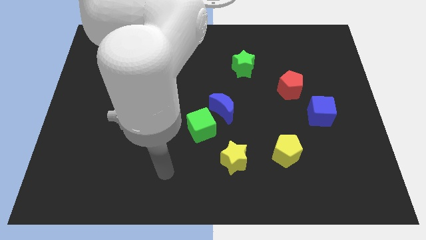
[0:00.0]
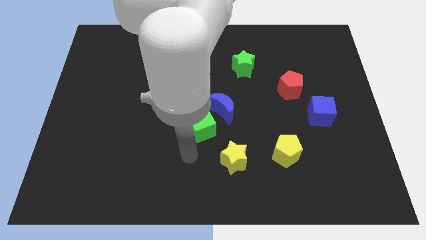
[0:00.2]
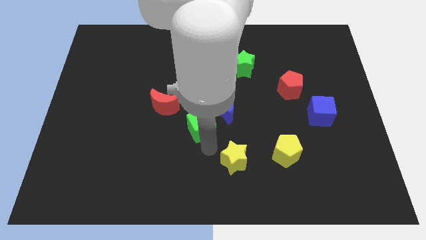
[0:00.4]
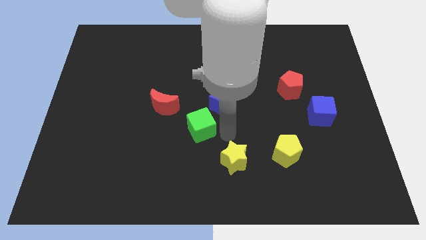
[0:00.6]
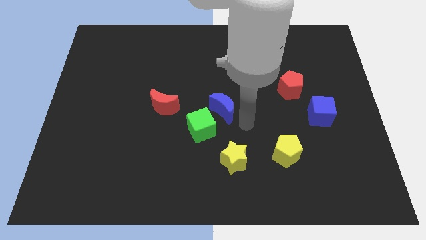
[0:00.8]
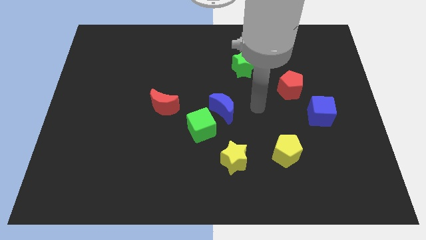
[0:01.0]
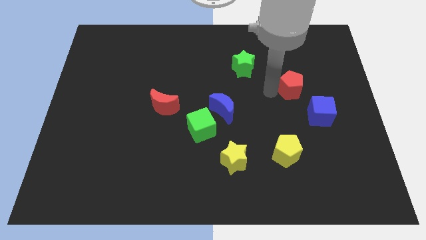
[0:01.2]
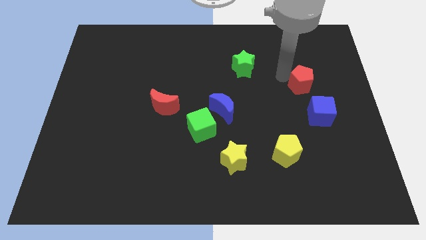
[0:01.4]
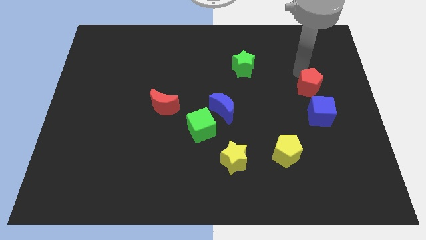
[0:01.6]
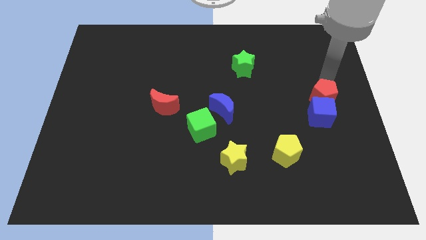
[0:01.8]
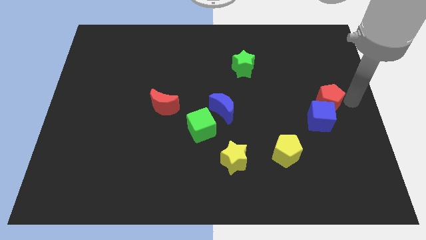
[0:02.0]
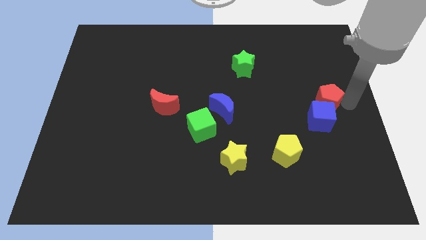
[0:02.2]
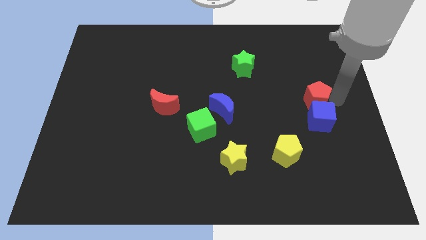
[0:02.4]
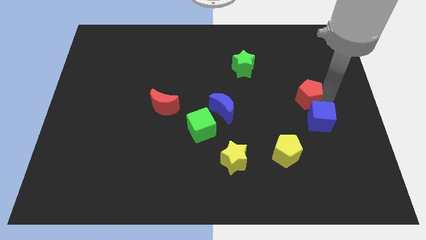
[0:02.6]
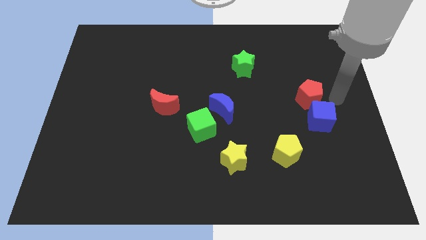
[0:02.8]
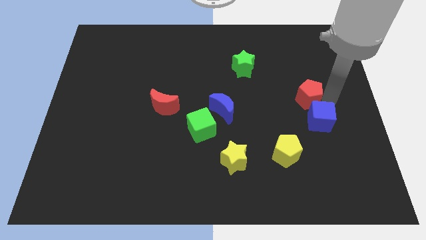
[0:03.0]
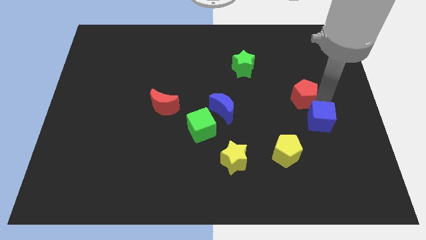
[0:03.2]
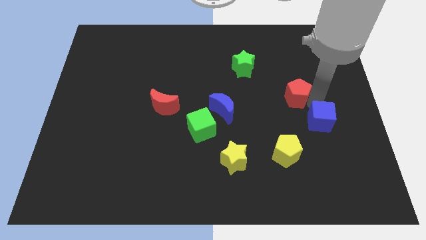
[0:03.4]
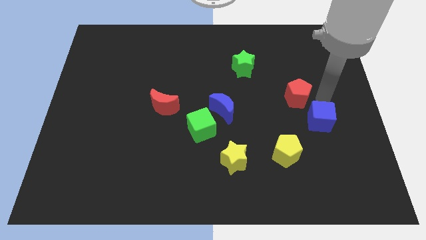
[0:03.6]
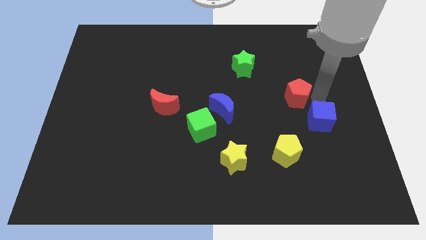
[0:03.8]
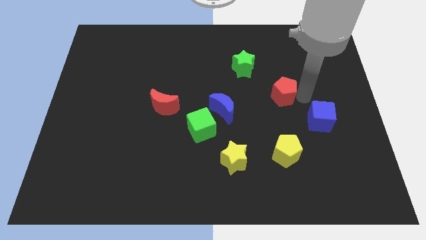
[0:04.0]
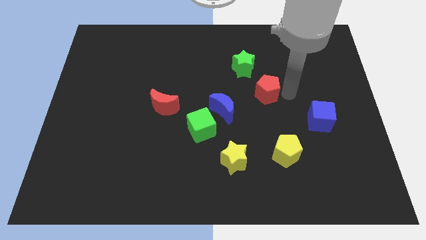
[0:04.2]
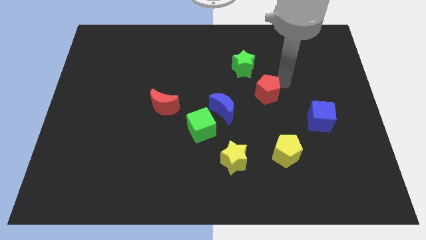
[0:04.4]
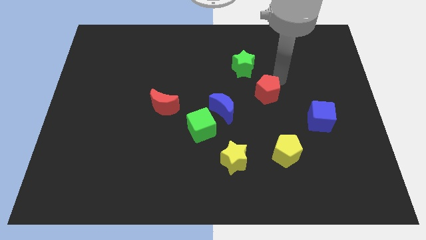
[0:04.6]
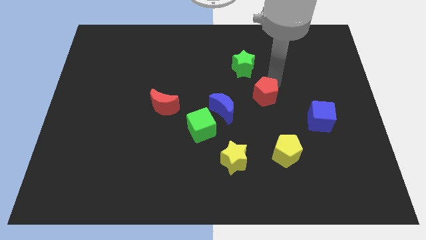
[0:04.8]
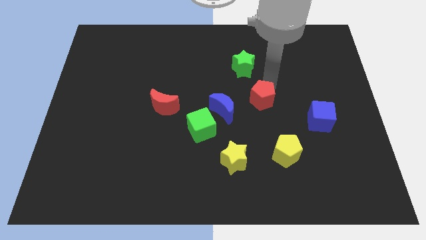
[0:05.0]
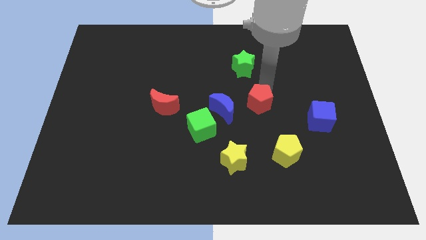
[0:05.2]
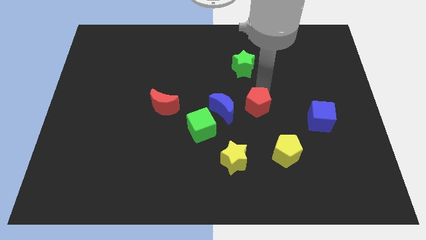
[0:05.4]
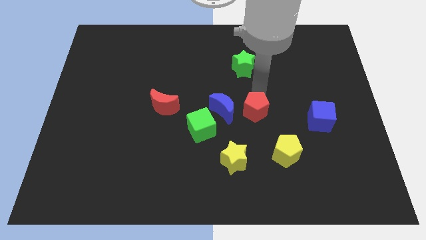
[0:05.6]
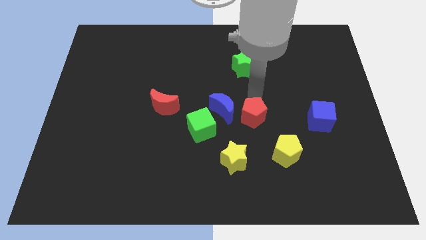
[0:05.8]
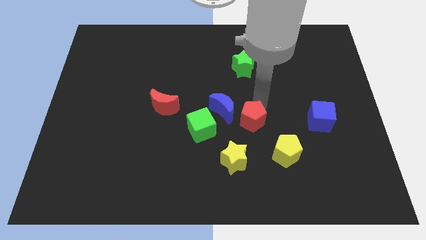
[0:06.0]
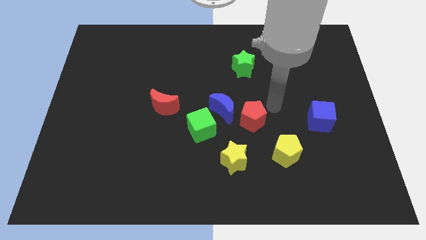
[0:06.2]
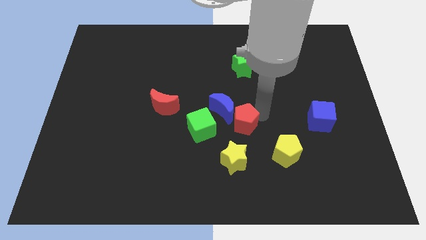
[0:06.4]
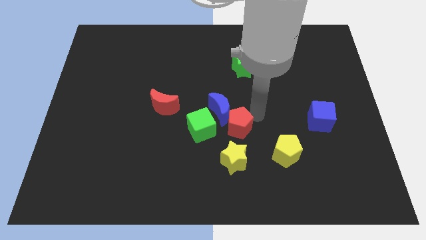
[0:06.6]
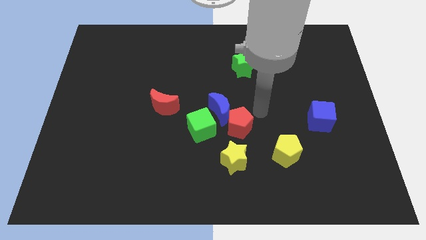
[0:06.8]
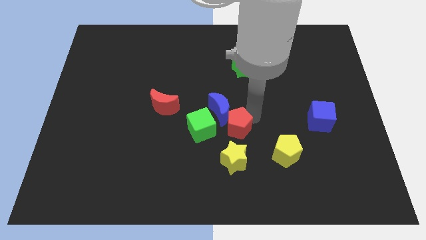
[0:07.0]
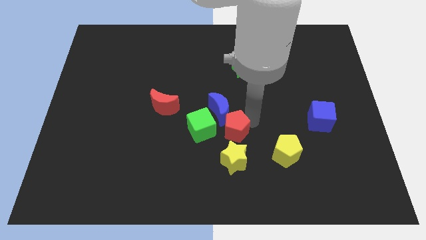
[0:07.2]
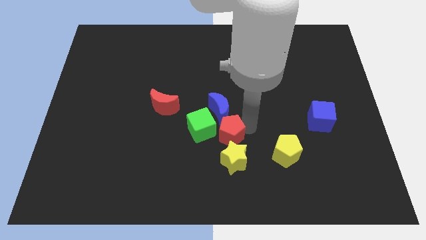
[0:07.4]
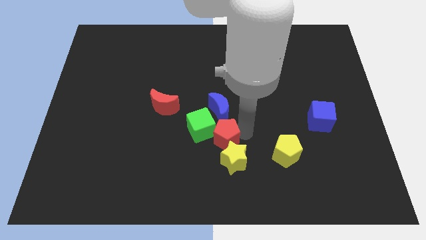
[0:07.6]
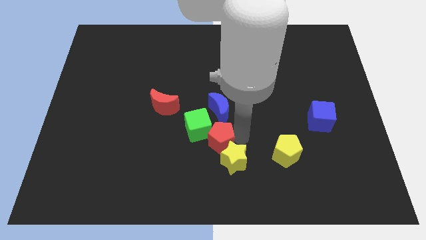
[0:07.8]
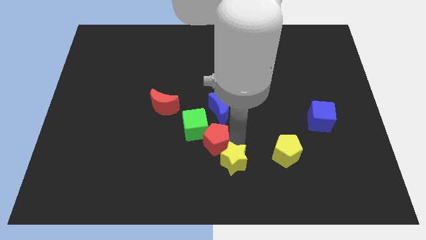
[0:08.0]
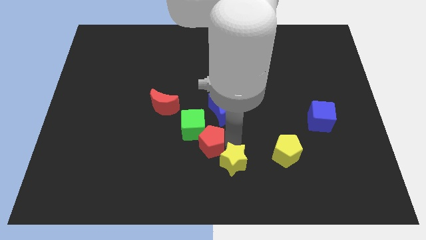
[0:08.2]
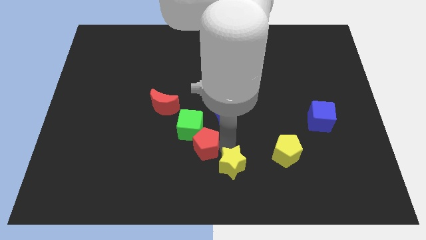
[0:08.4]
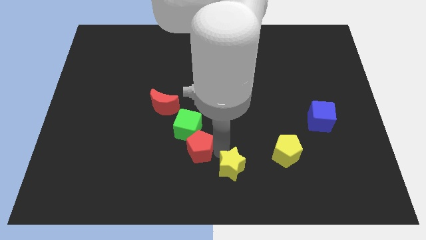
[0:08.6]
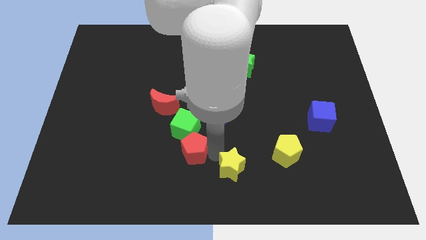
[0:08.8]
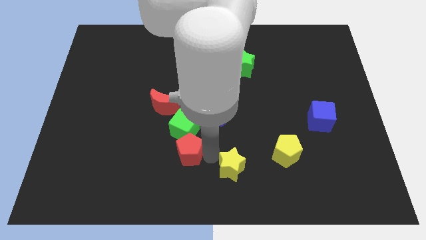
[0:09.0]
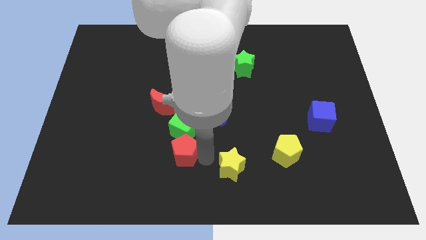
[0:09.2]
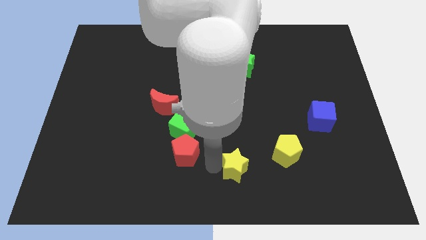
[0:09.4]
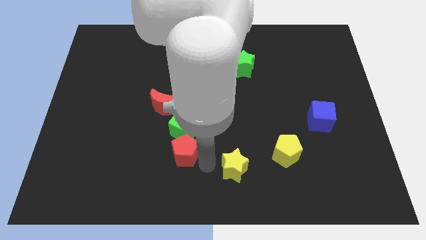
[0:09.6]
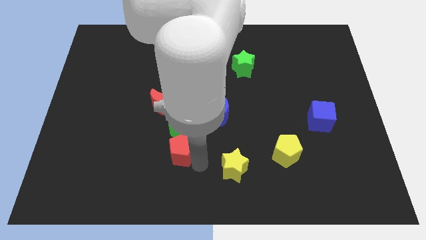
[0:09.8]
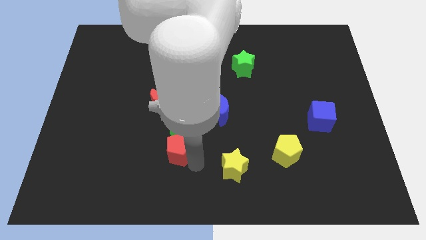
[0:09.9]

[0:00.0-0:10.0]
put the red pentagon to the bottom of the red moon

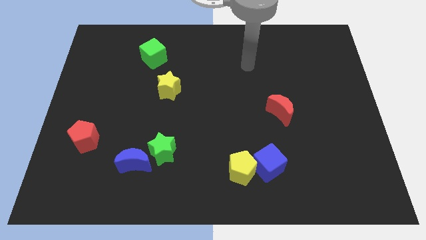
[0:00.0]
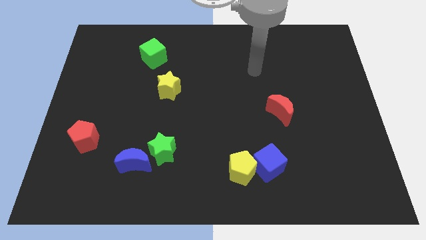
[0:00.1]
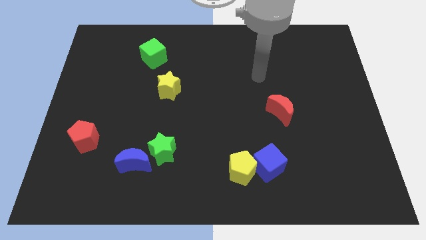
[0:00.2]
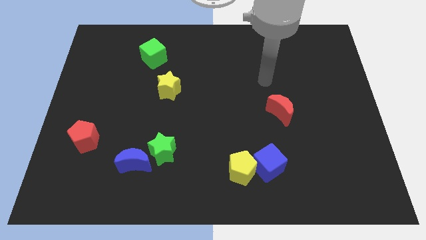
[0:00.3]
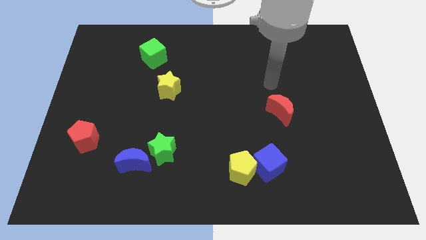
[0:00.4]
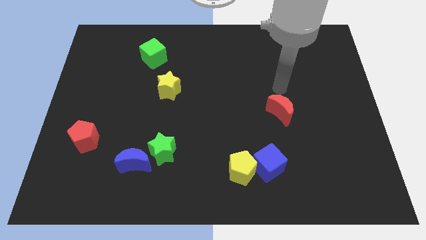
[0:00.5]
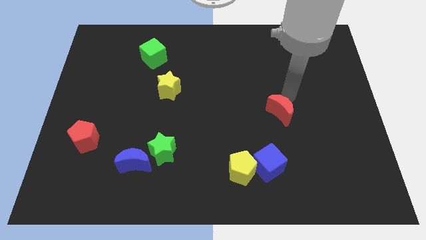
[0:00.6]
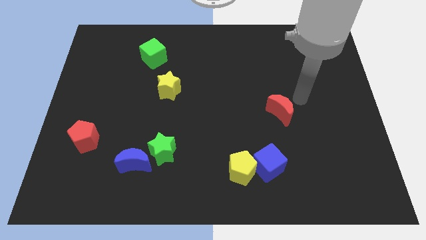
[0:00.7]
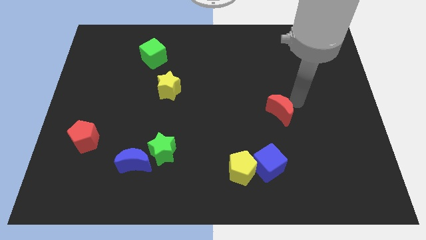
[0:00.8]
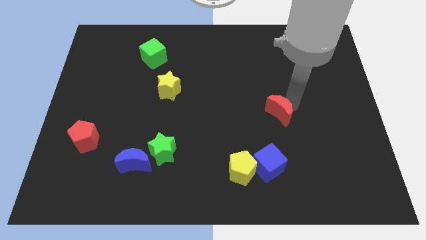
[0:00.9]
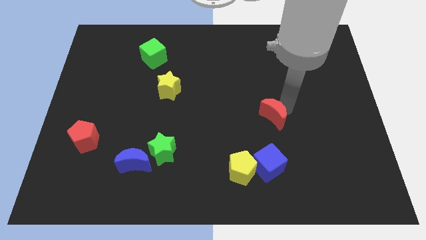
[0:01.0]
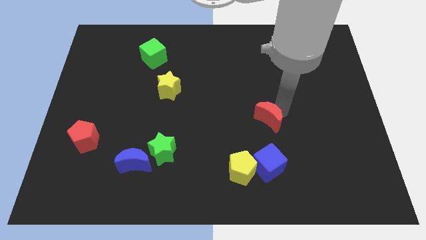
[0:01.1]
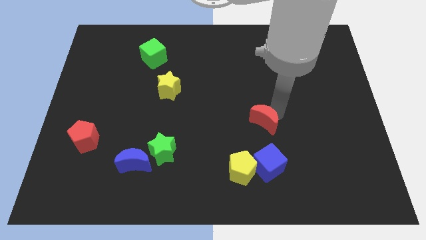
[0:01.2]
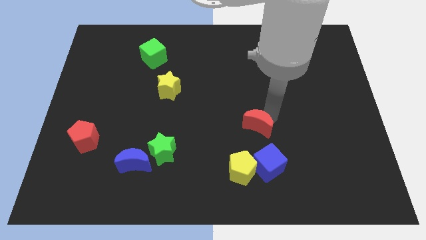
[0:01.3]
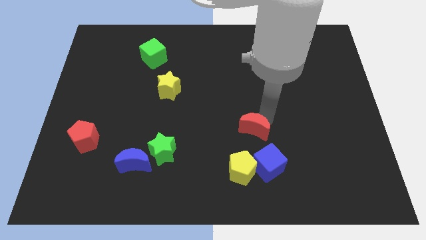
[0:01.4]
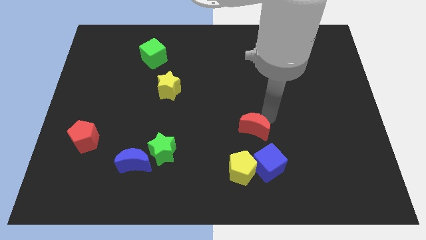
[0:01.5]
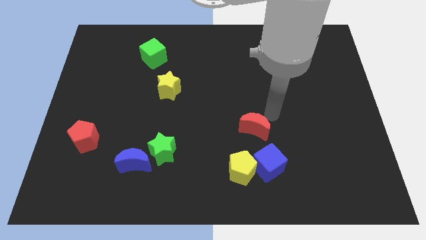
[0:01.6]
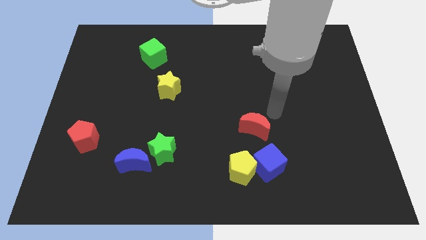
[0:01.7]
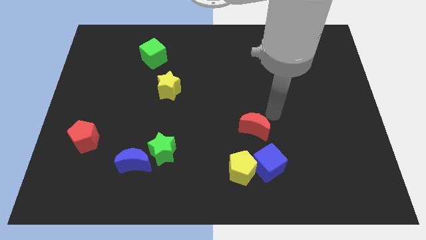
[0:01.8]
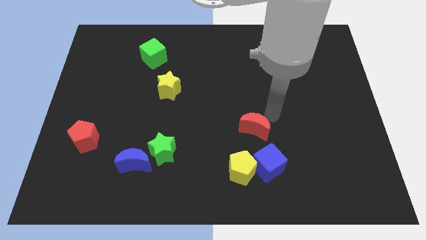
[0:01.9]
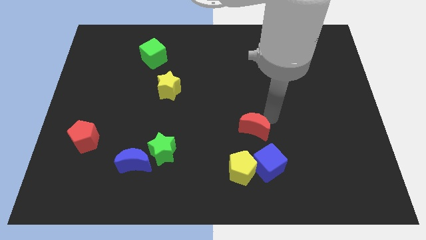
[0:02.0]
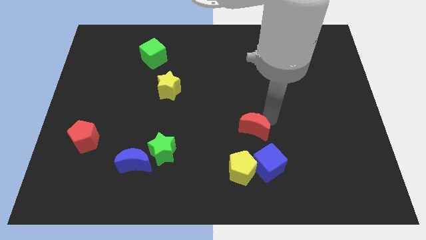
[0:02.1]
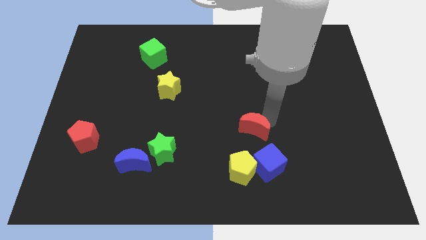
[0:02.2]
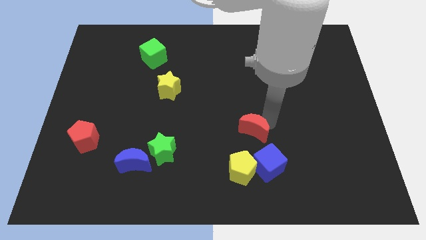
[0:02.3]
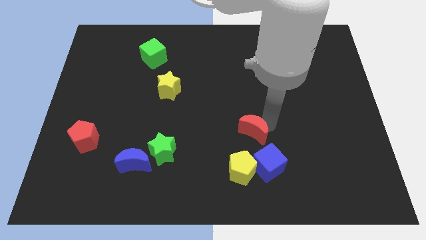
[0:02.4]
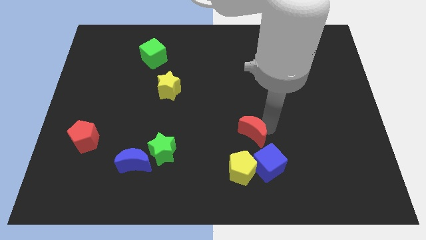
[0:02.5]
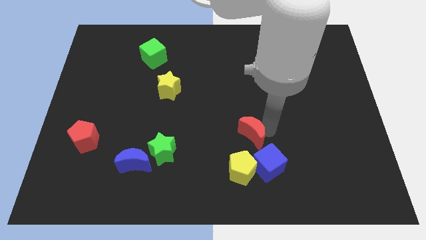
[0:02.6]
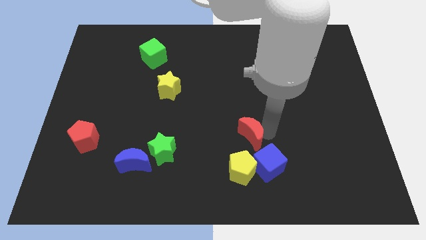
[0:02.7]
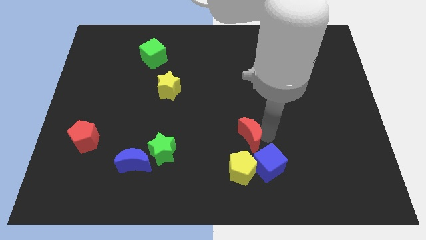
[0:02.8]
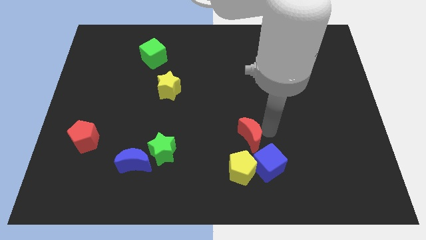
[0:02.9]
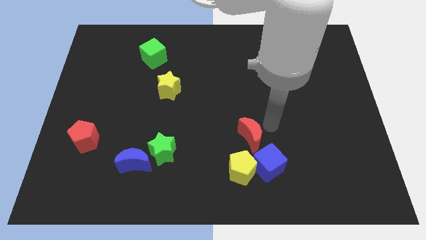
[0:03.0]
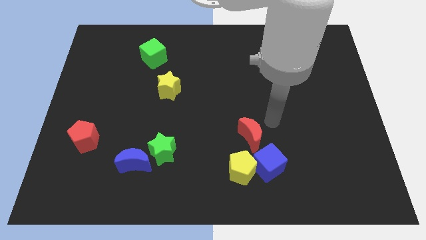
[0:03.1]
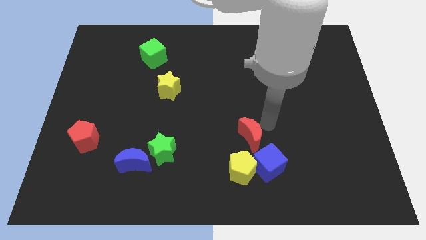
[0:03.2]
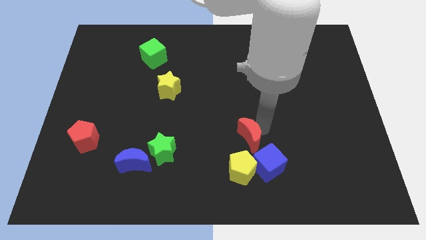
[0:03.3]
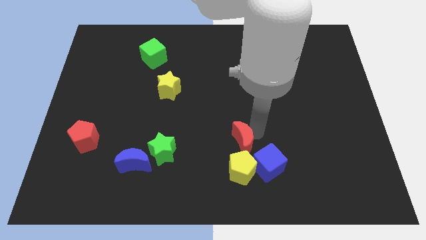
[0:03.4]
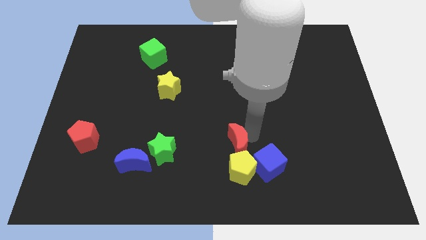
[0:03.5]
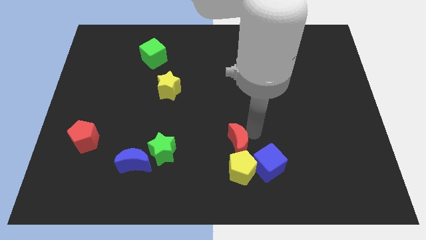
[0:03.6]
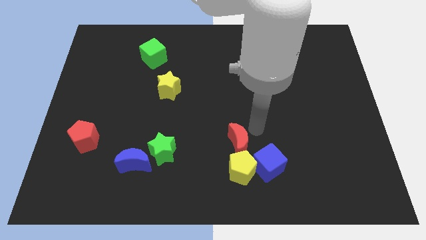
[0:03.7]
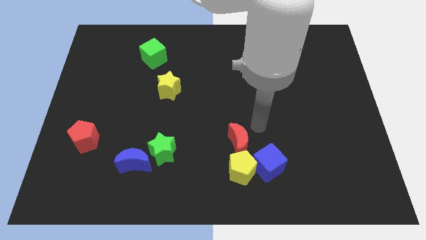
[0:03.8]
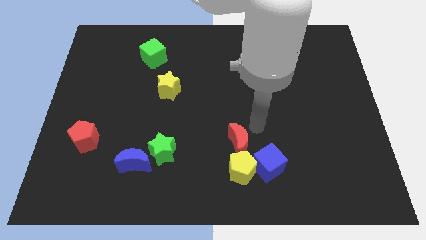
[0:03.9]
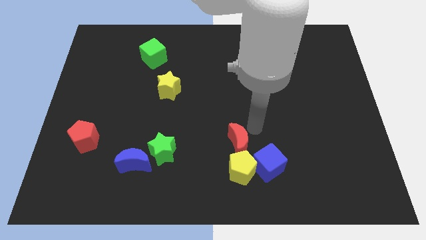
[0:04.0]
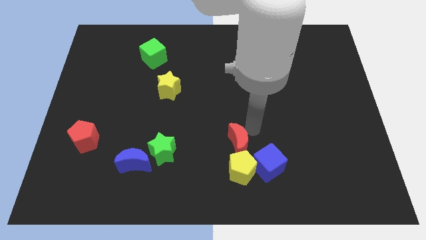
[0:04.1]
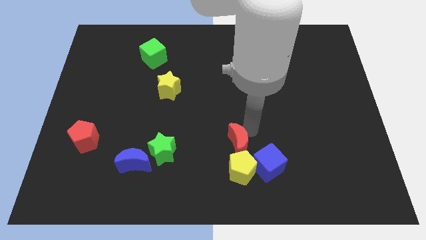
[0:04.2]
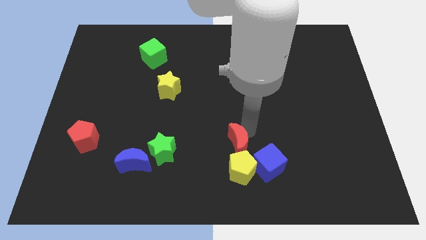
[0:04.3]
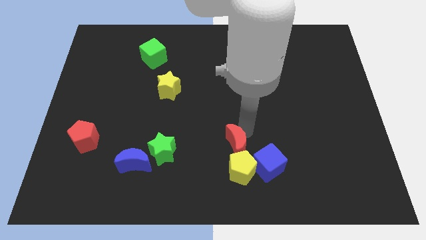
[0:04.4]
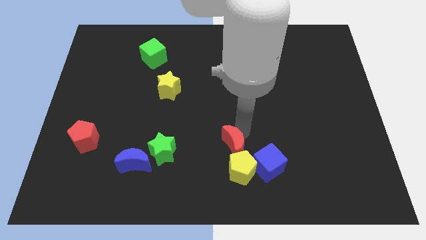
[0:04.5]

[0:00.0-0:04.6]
push the red moon to the left side of the blue cube
